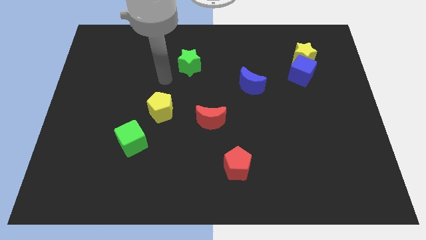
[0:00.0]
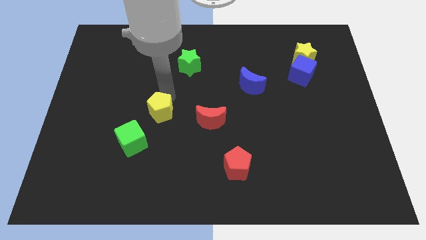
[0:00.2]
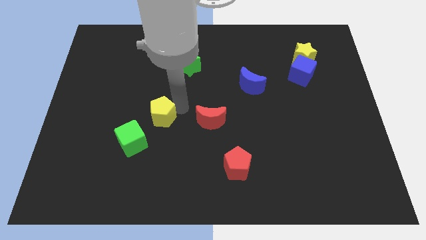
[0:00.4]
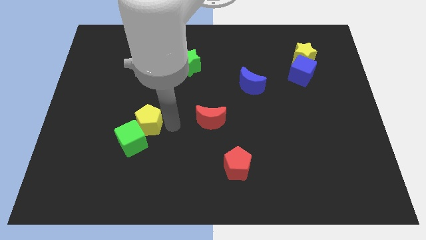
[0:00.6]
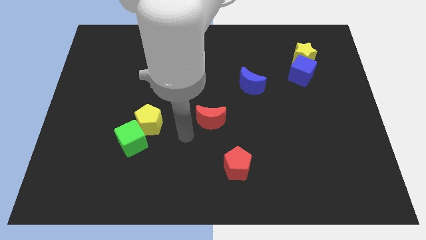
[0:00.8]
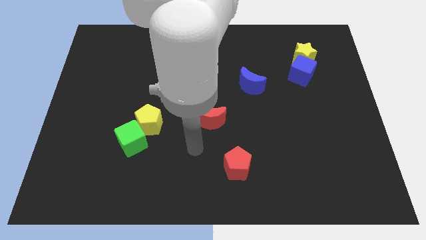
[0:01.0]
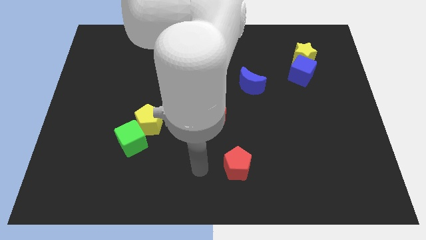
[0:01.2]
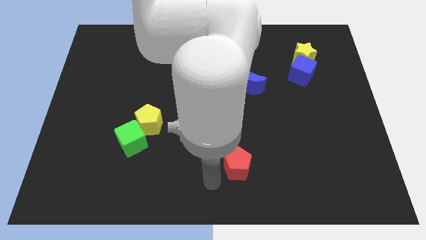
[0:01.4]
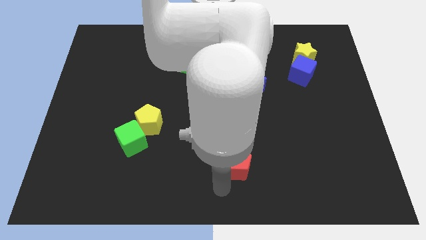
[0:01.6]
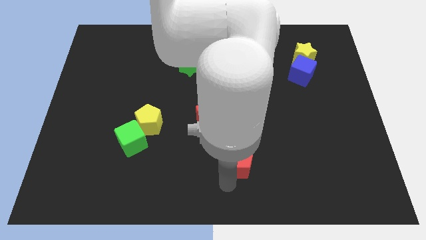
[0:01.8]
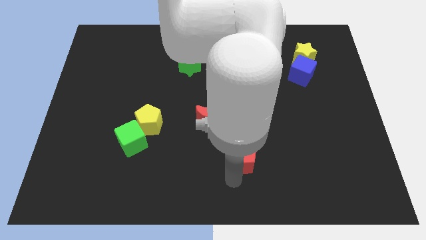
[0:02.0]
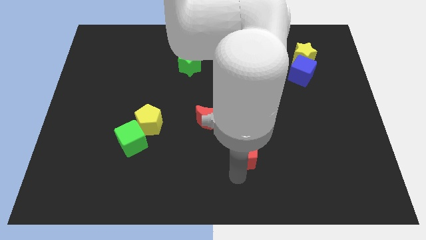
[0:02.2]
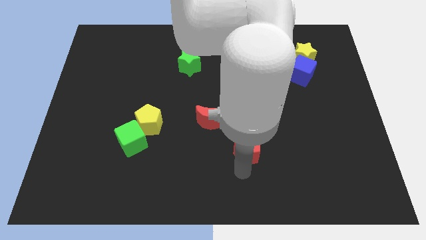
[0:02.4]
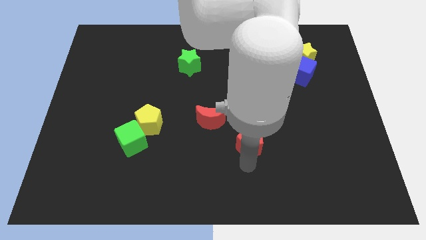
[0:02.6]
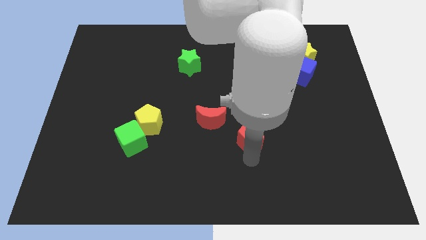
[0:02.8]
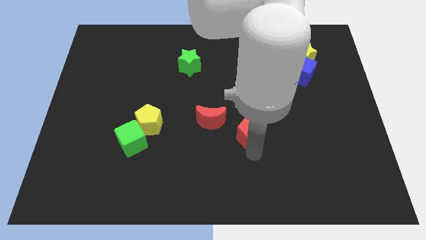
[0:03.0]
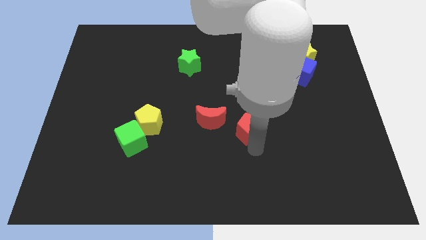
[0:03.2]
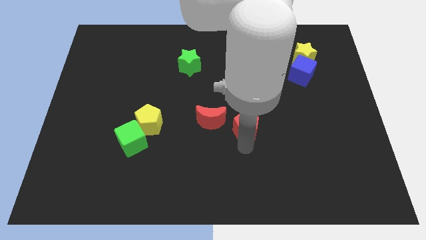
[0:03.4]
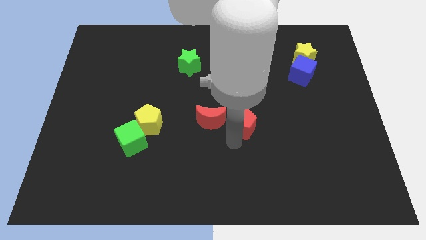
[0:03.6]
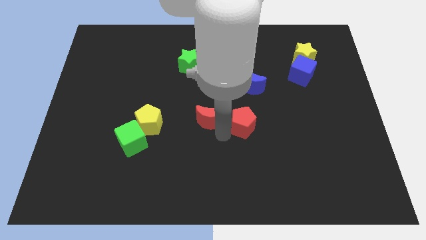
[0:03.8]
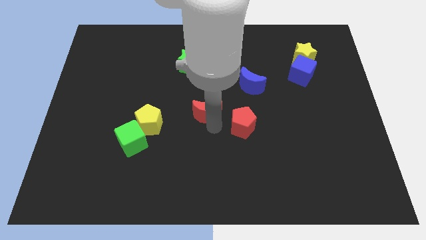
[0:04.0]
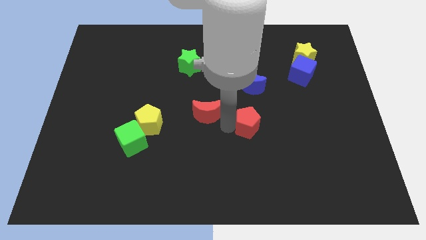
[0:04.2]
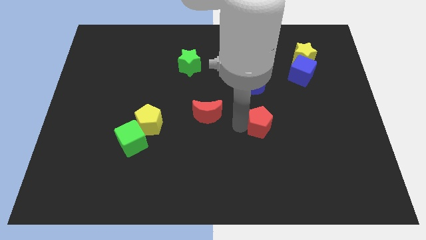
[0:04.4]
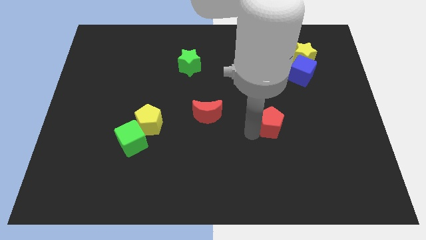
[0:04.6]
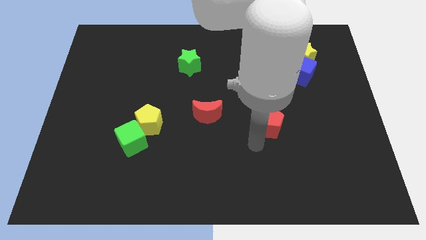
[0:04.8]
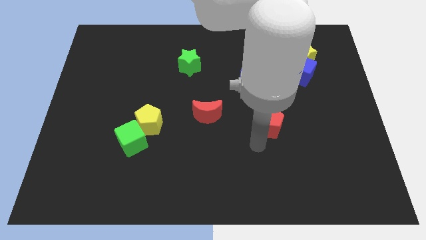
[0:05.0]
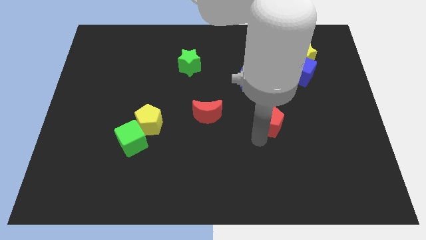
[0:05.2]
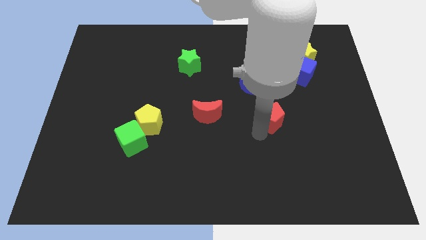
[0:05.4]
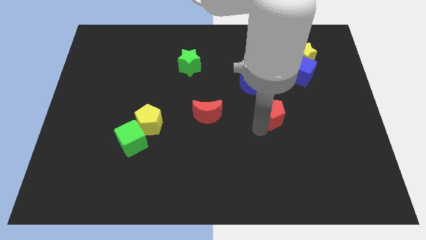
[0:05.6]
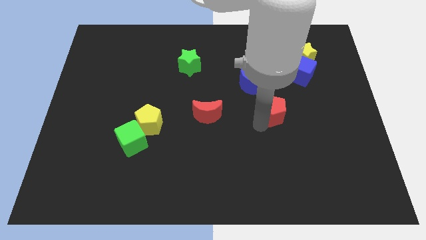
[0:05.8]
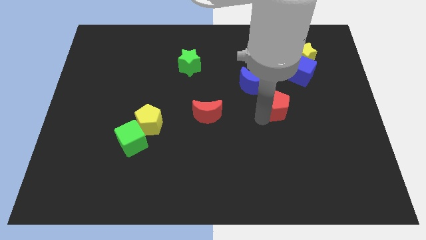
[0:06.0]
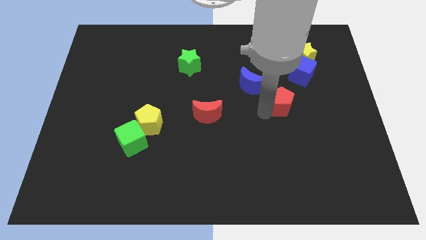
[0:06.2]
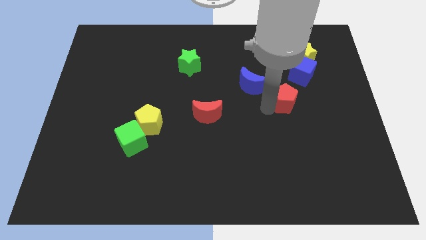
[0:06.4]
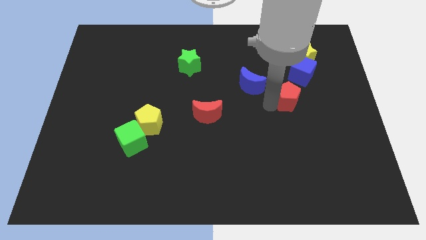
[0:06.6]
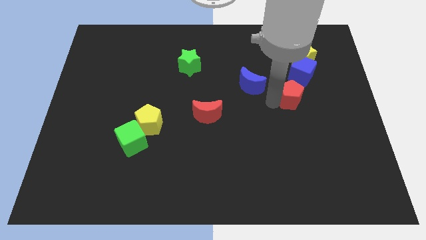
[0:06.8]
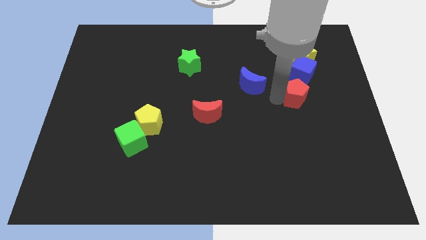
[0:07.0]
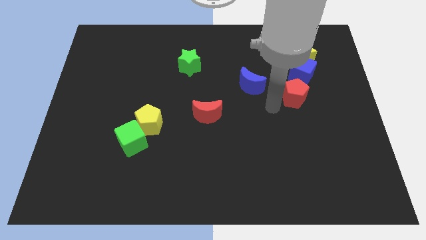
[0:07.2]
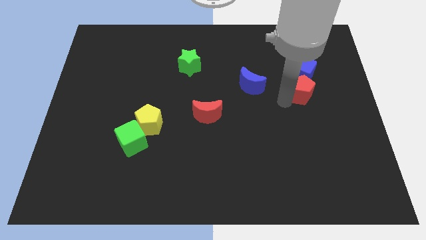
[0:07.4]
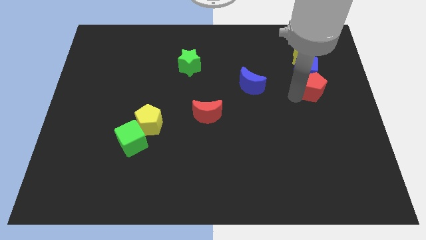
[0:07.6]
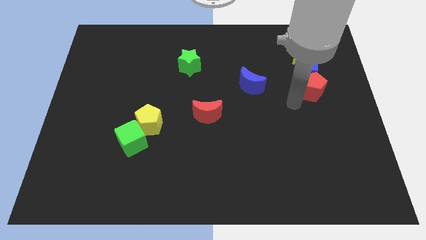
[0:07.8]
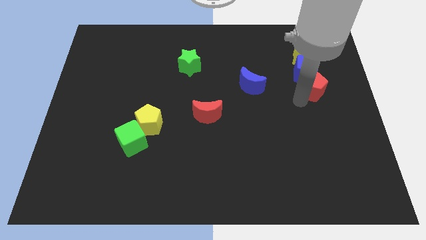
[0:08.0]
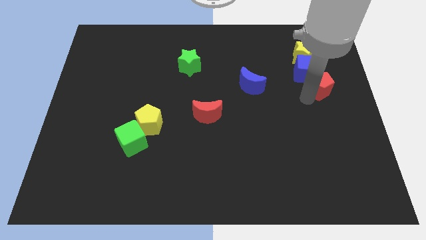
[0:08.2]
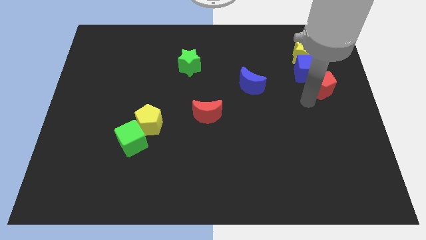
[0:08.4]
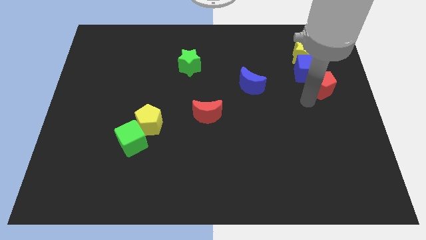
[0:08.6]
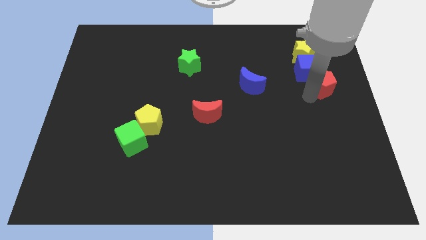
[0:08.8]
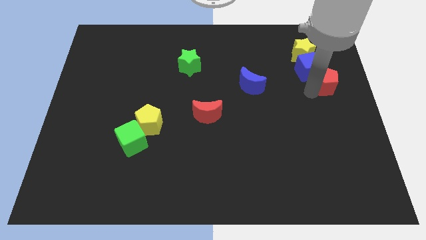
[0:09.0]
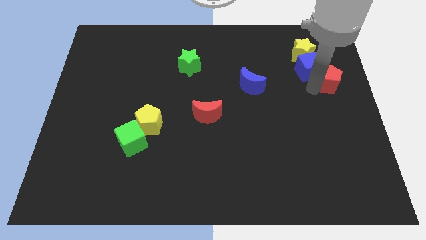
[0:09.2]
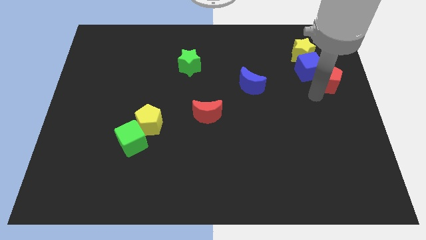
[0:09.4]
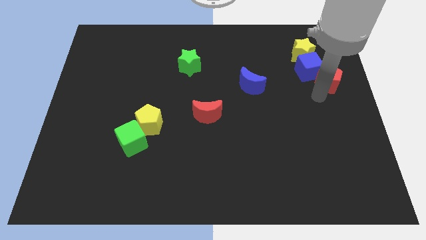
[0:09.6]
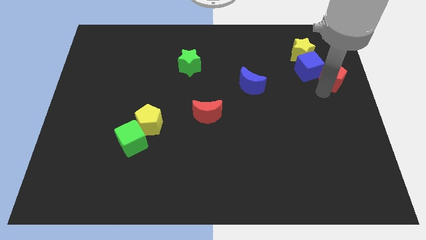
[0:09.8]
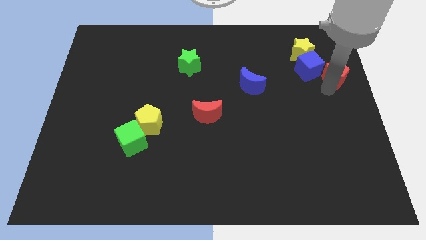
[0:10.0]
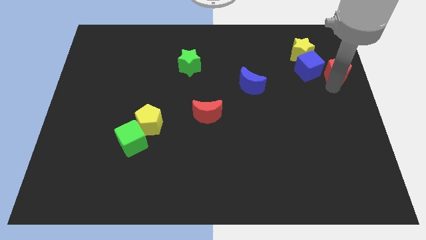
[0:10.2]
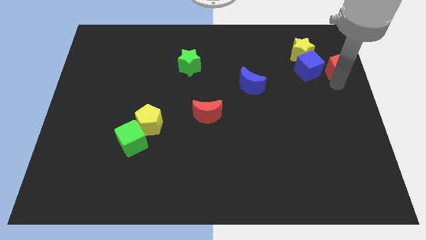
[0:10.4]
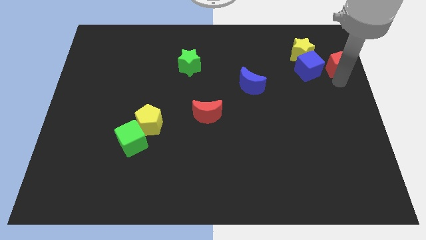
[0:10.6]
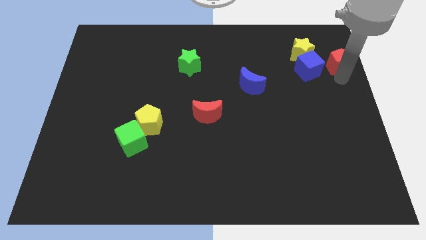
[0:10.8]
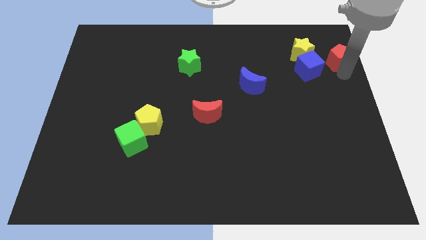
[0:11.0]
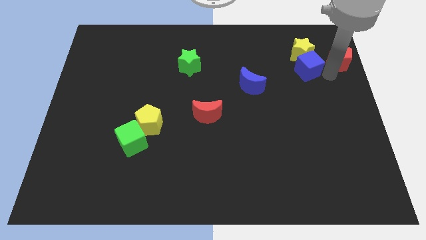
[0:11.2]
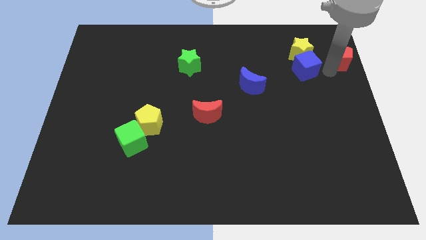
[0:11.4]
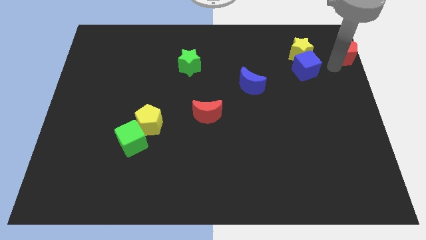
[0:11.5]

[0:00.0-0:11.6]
slide the red pentagon to the top right of the board
